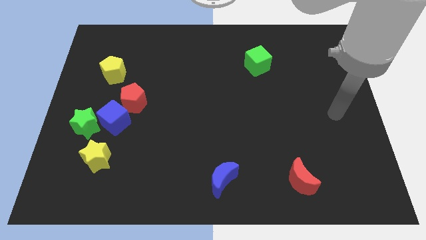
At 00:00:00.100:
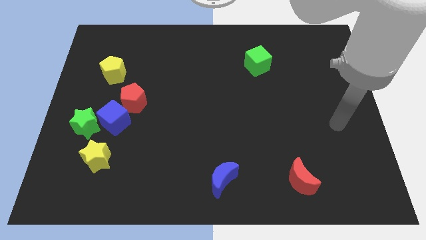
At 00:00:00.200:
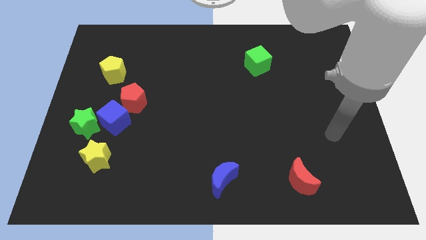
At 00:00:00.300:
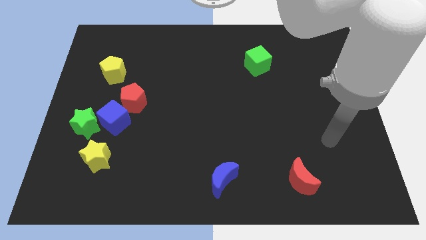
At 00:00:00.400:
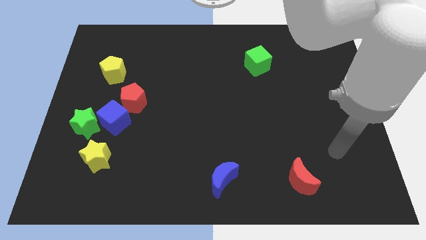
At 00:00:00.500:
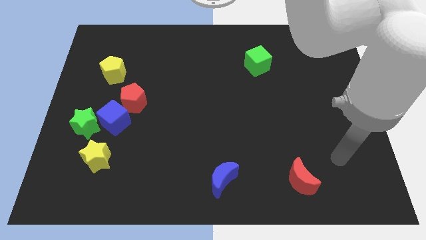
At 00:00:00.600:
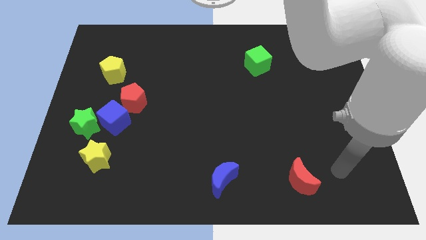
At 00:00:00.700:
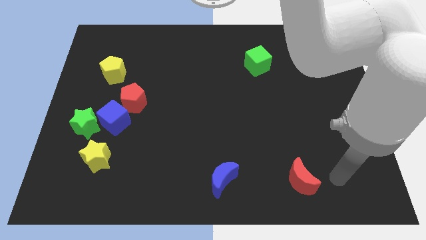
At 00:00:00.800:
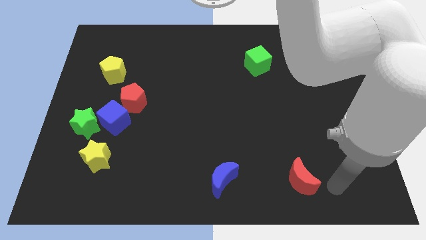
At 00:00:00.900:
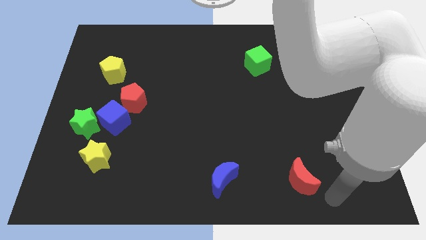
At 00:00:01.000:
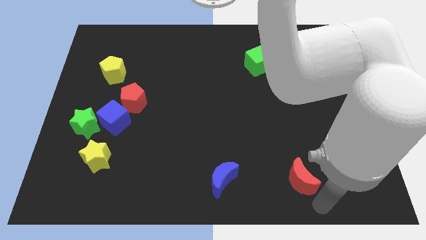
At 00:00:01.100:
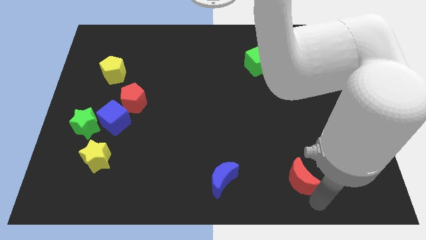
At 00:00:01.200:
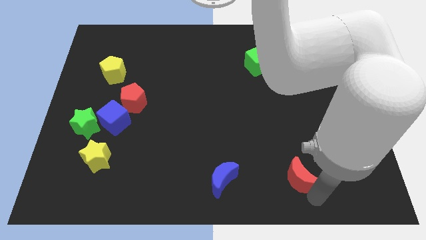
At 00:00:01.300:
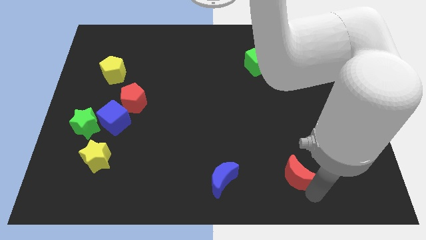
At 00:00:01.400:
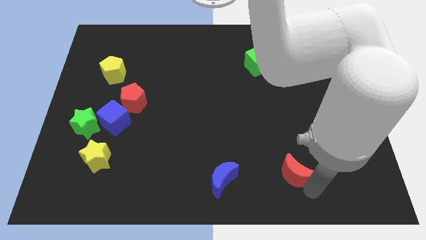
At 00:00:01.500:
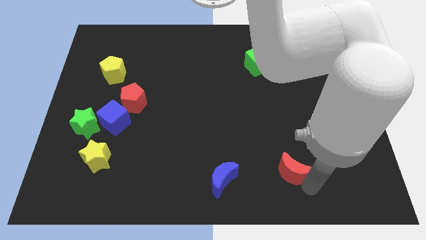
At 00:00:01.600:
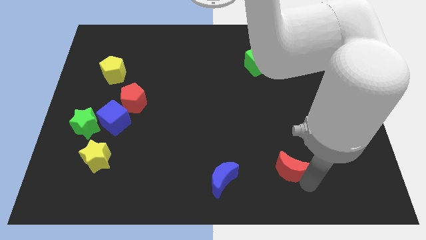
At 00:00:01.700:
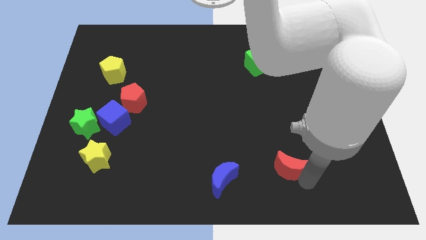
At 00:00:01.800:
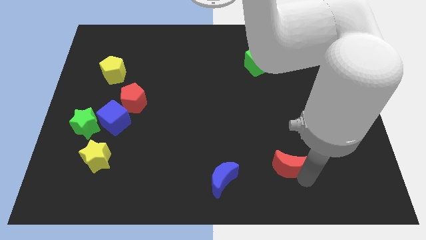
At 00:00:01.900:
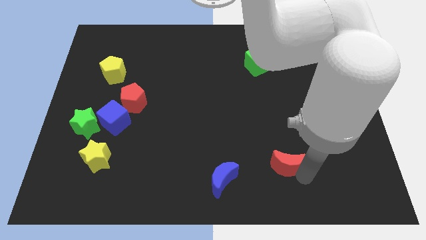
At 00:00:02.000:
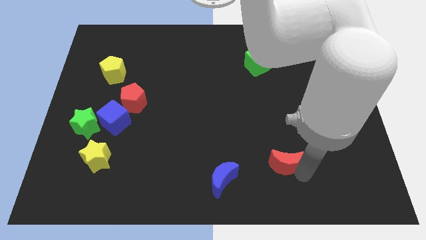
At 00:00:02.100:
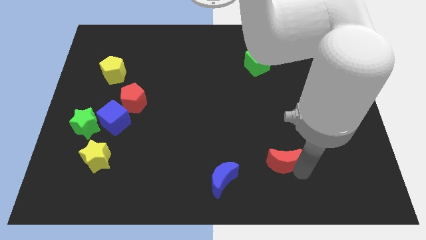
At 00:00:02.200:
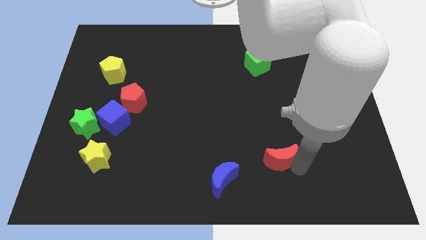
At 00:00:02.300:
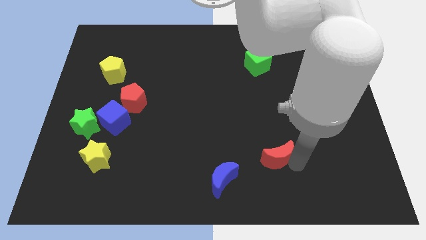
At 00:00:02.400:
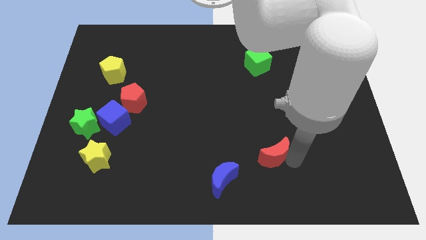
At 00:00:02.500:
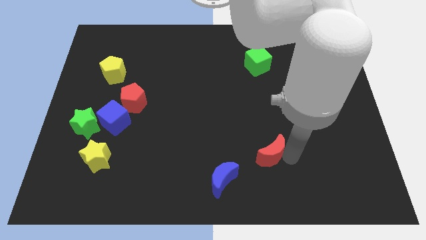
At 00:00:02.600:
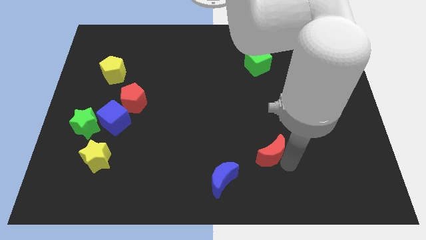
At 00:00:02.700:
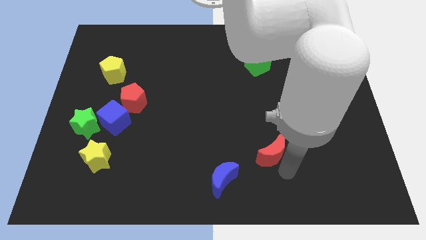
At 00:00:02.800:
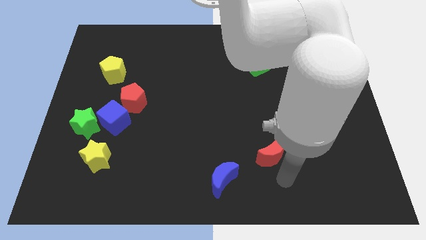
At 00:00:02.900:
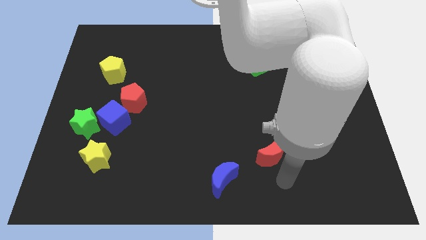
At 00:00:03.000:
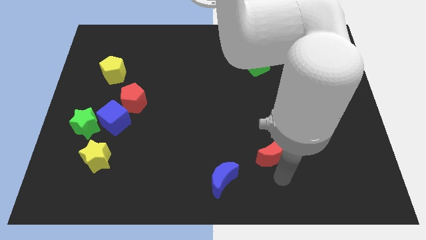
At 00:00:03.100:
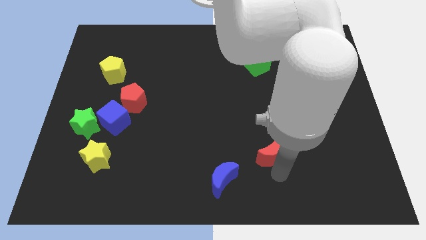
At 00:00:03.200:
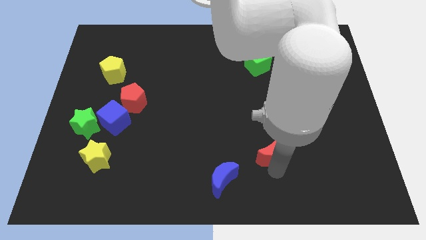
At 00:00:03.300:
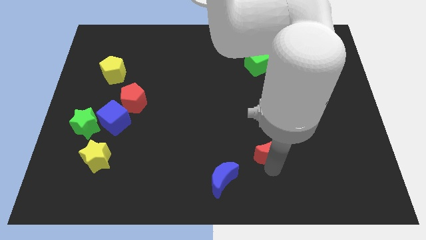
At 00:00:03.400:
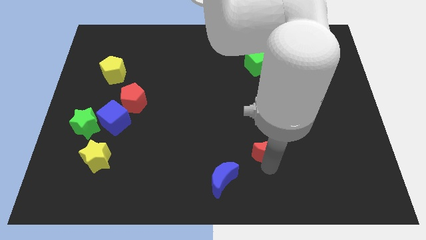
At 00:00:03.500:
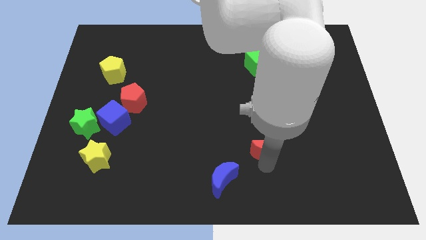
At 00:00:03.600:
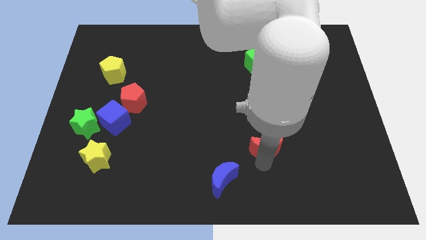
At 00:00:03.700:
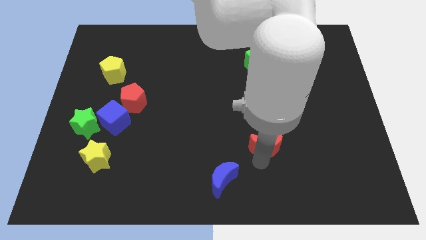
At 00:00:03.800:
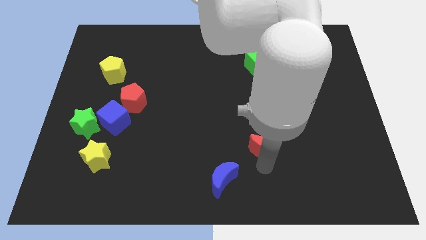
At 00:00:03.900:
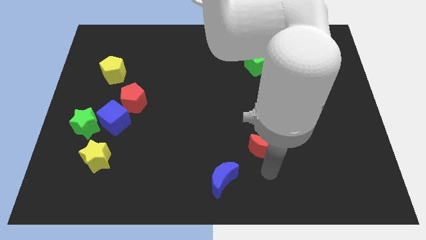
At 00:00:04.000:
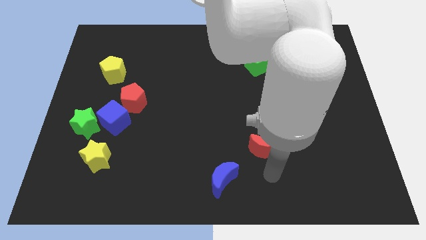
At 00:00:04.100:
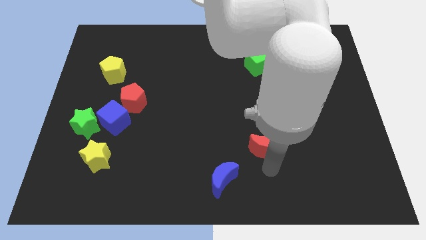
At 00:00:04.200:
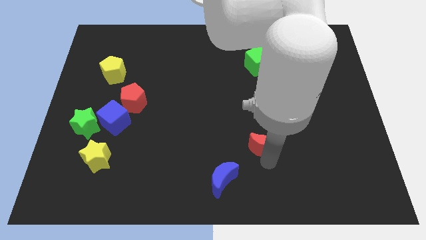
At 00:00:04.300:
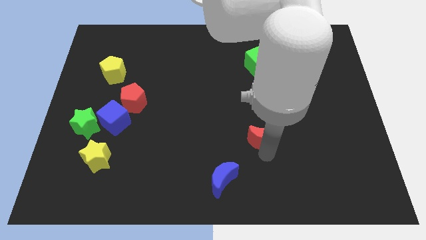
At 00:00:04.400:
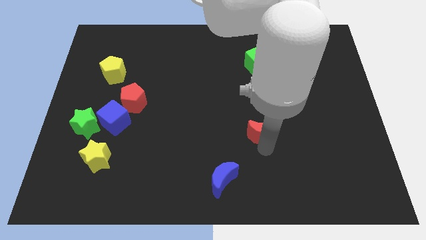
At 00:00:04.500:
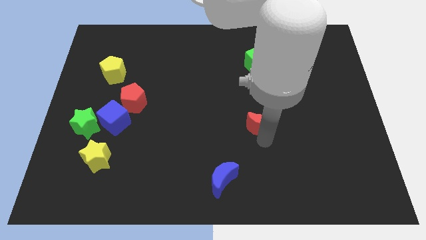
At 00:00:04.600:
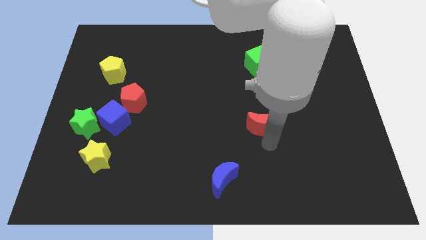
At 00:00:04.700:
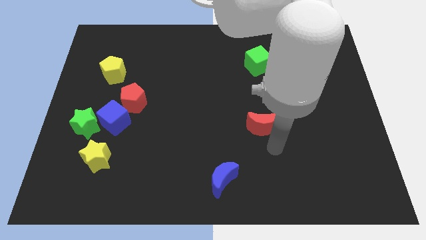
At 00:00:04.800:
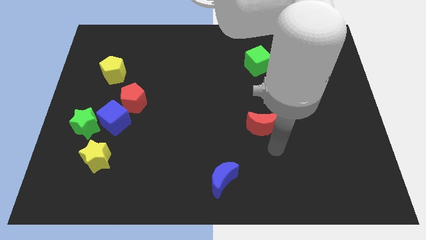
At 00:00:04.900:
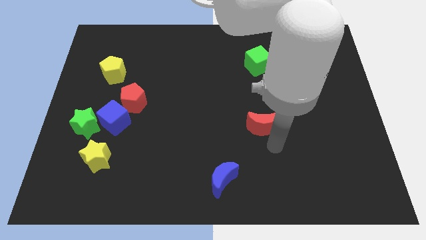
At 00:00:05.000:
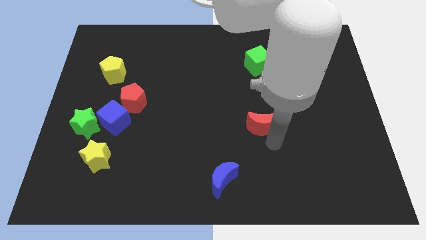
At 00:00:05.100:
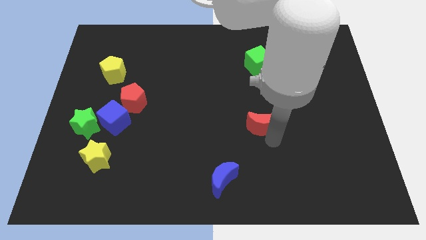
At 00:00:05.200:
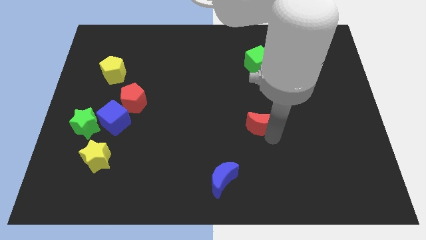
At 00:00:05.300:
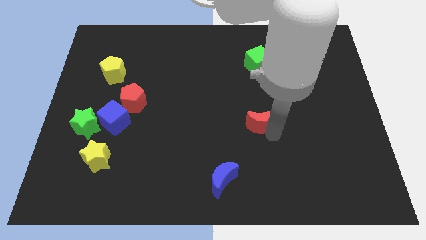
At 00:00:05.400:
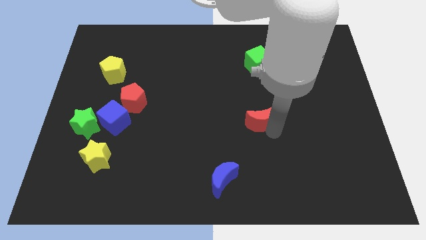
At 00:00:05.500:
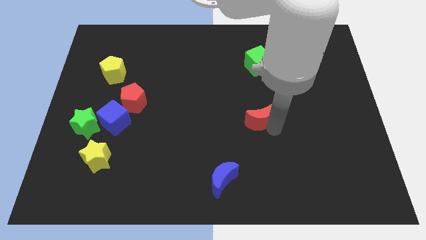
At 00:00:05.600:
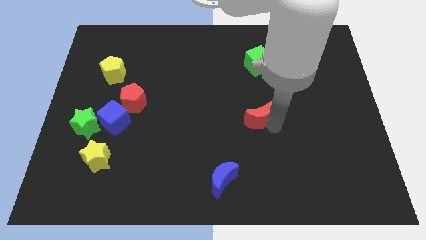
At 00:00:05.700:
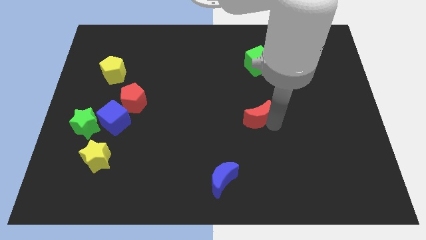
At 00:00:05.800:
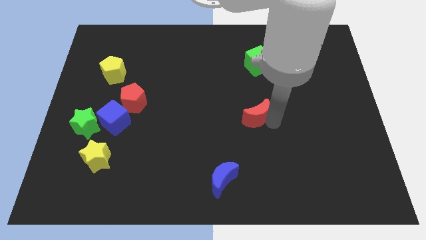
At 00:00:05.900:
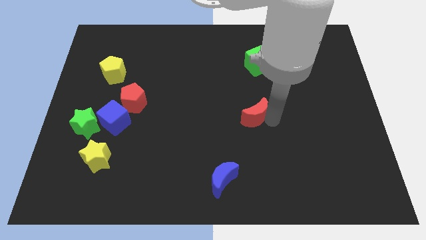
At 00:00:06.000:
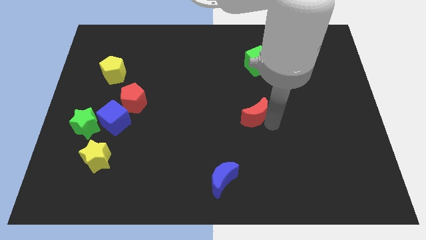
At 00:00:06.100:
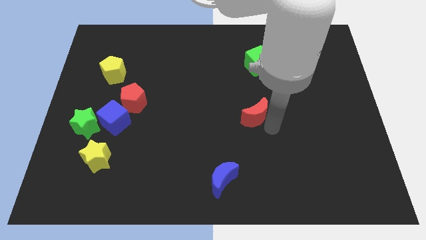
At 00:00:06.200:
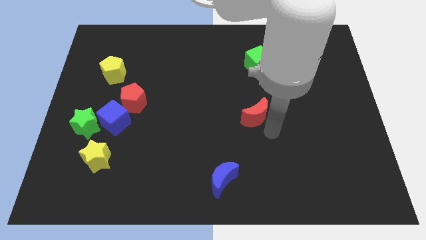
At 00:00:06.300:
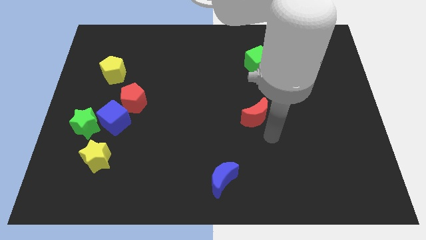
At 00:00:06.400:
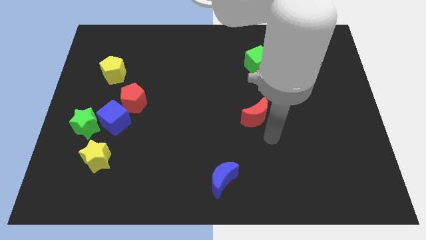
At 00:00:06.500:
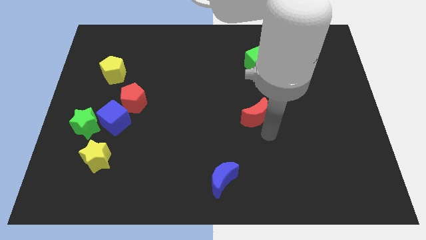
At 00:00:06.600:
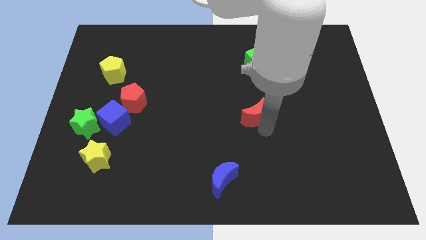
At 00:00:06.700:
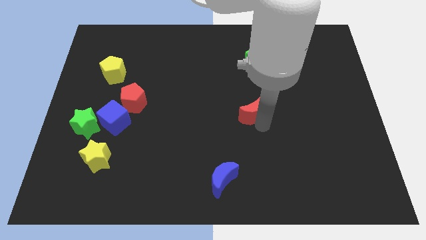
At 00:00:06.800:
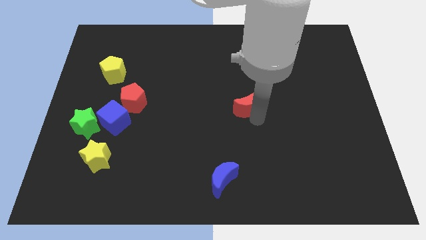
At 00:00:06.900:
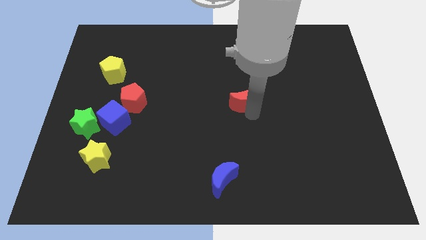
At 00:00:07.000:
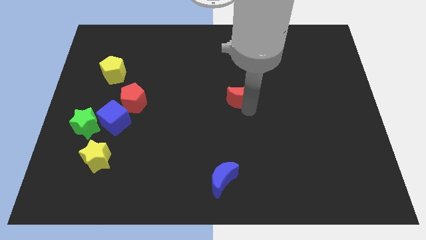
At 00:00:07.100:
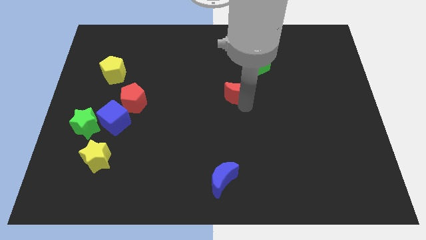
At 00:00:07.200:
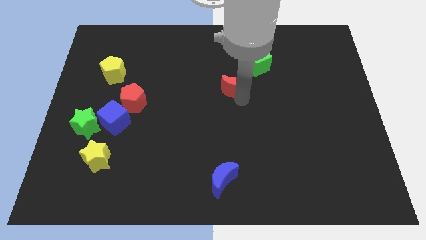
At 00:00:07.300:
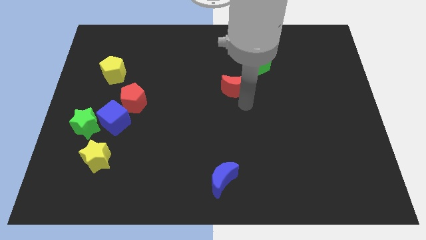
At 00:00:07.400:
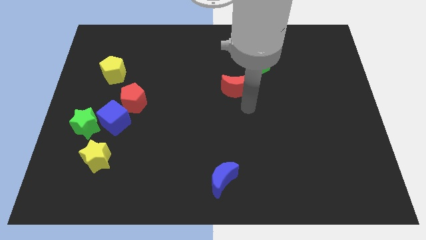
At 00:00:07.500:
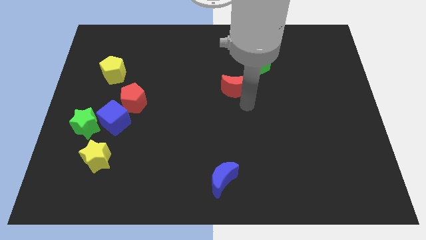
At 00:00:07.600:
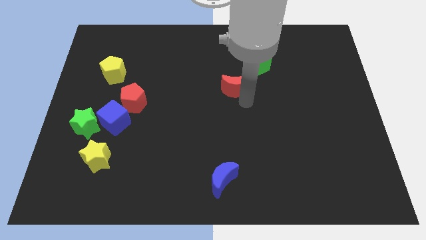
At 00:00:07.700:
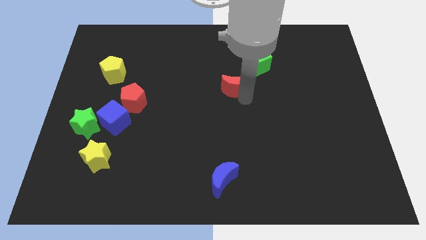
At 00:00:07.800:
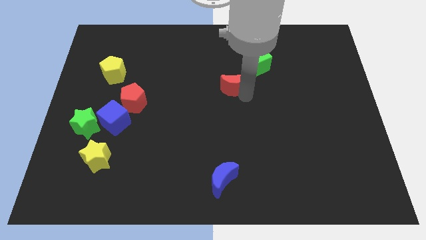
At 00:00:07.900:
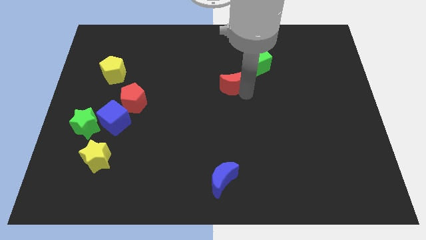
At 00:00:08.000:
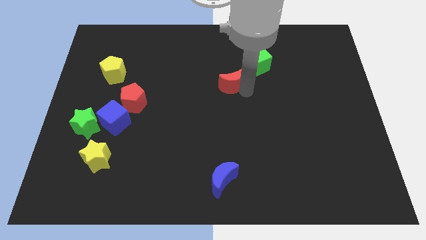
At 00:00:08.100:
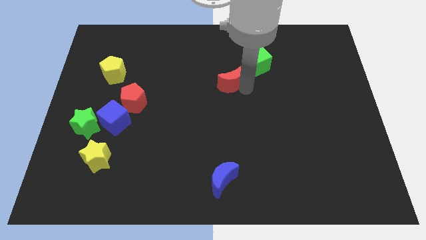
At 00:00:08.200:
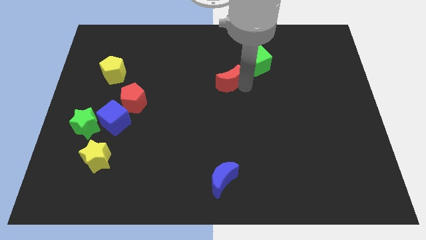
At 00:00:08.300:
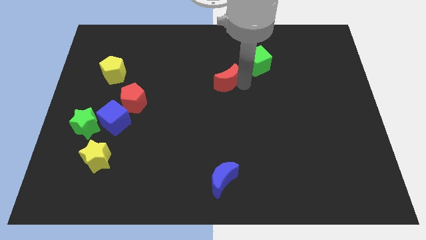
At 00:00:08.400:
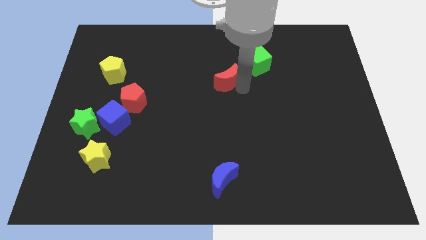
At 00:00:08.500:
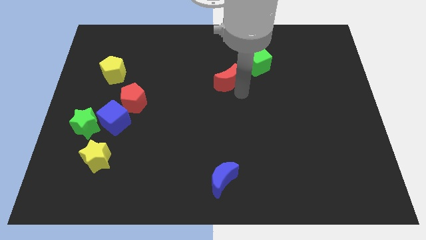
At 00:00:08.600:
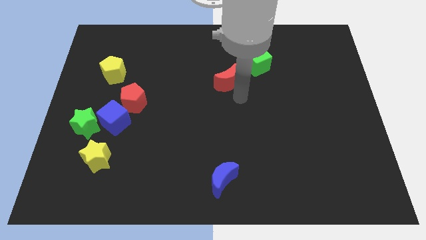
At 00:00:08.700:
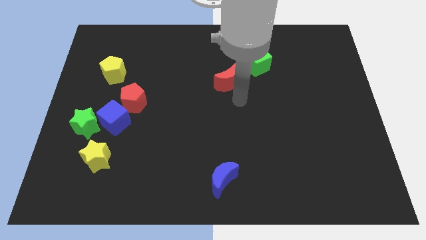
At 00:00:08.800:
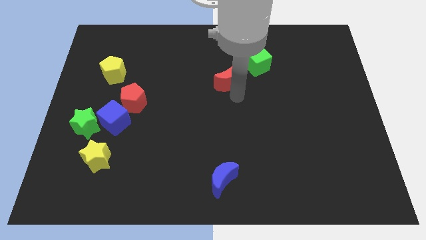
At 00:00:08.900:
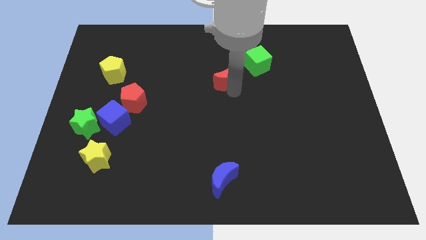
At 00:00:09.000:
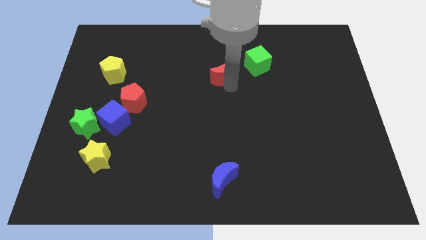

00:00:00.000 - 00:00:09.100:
move the red moon to the left of the green cube
